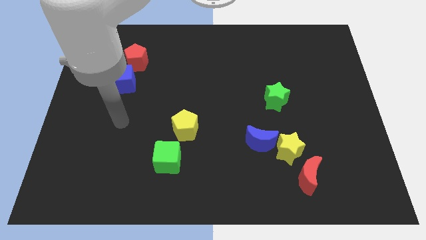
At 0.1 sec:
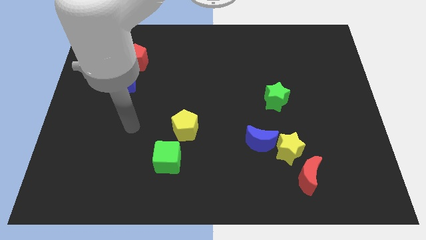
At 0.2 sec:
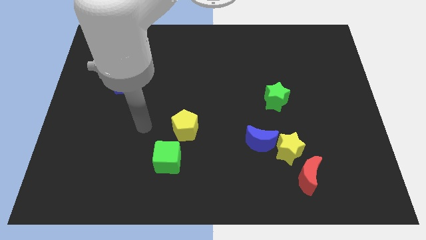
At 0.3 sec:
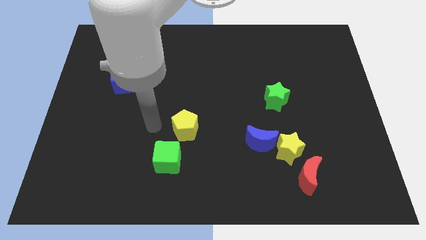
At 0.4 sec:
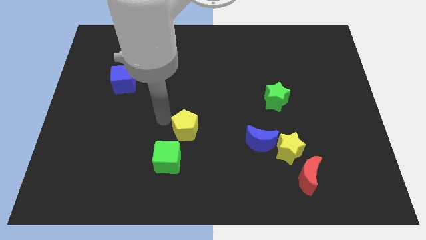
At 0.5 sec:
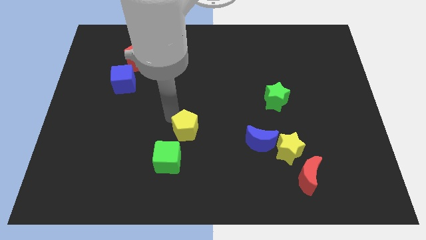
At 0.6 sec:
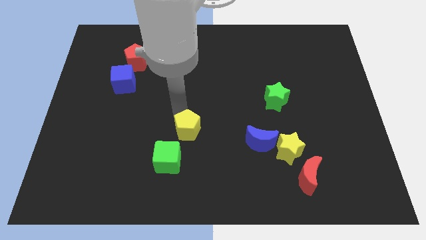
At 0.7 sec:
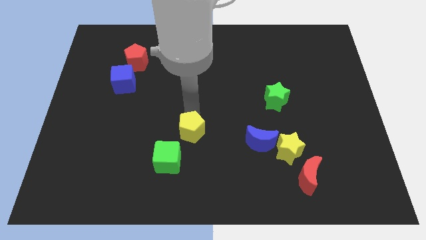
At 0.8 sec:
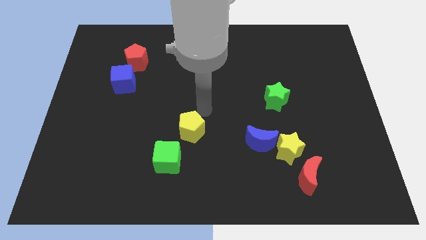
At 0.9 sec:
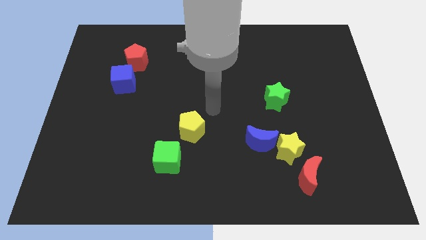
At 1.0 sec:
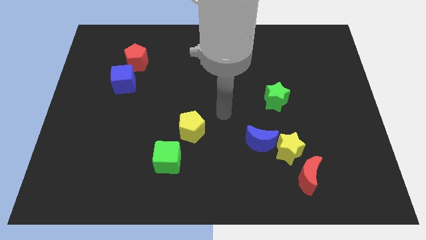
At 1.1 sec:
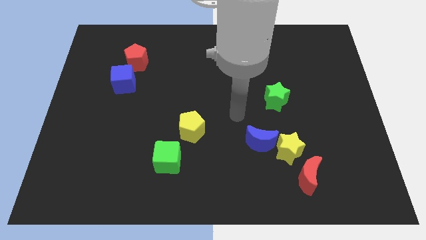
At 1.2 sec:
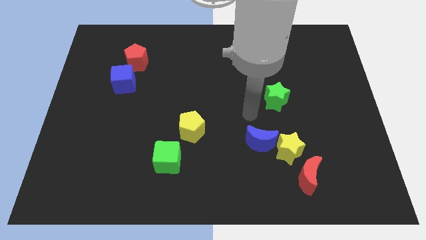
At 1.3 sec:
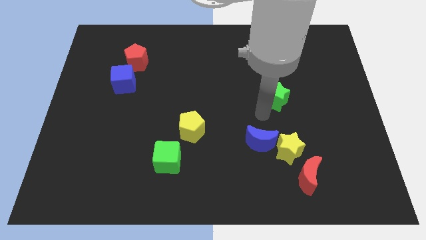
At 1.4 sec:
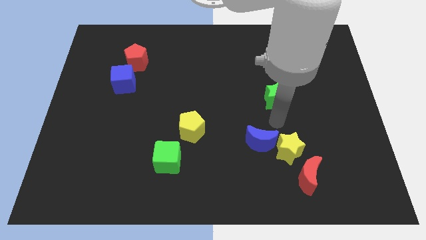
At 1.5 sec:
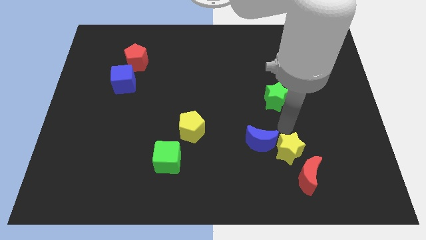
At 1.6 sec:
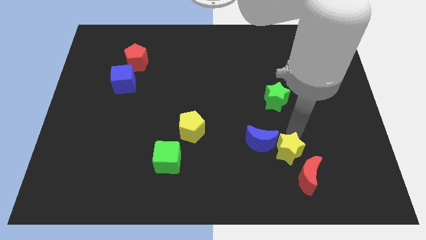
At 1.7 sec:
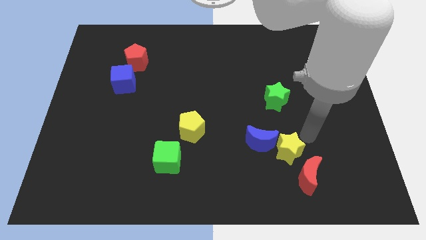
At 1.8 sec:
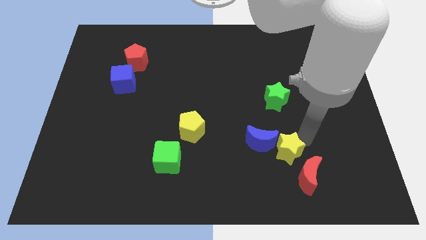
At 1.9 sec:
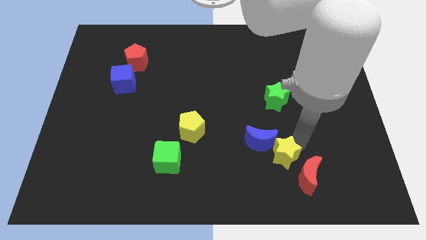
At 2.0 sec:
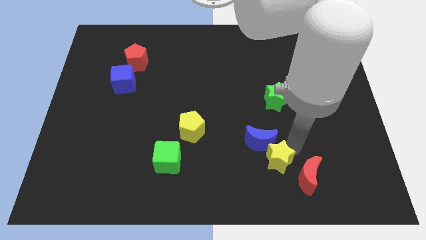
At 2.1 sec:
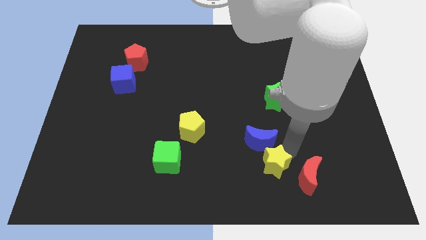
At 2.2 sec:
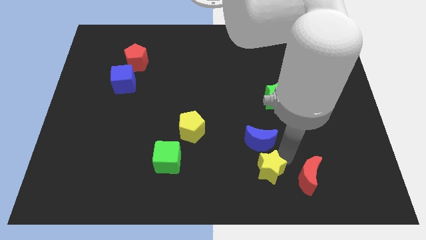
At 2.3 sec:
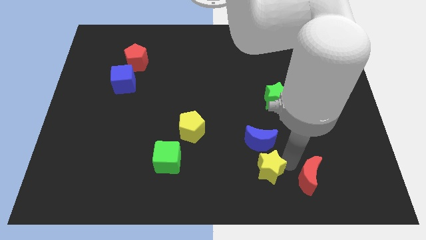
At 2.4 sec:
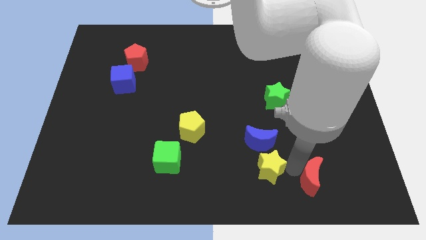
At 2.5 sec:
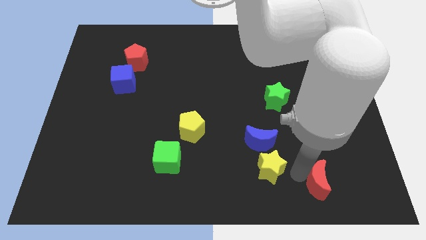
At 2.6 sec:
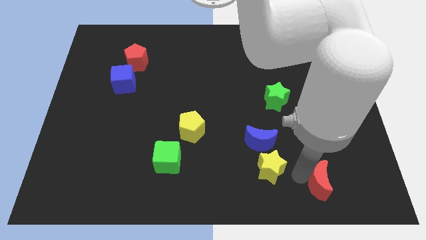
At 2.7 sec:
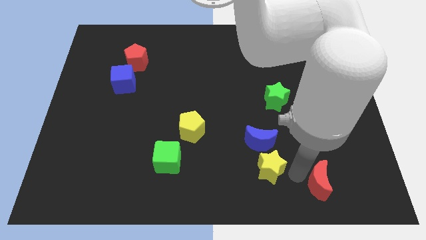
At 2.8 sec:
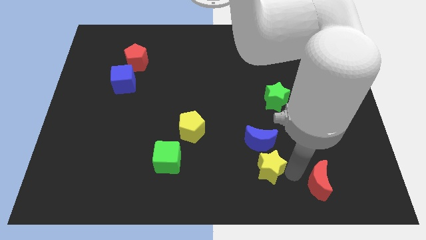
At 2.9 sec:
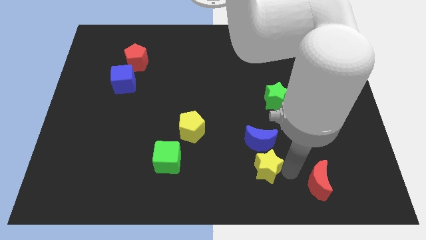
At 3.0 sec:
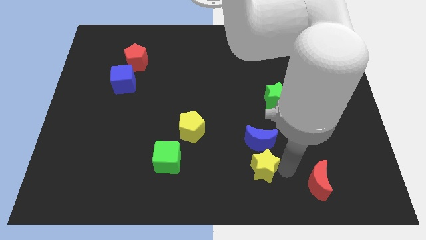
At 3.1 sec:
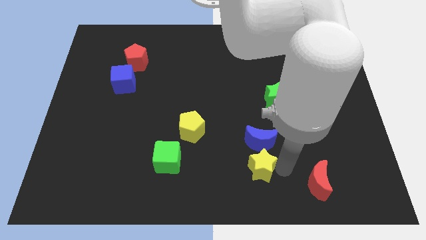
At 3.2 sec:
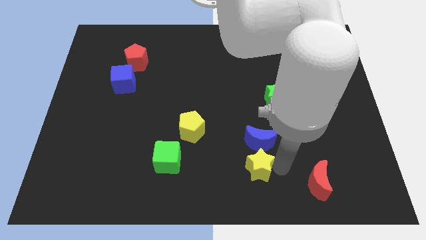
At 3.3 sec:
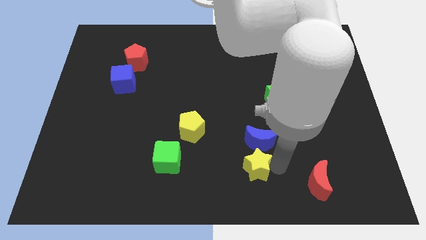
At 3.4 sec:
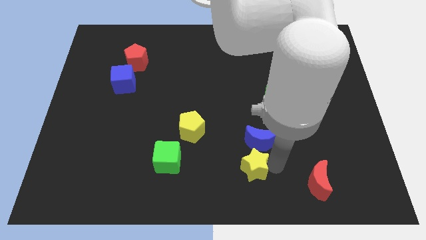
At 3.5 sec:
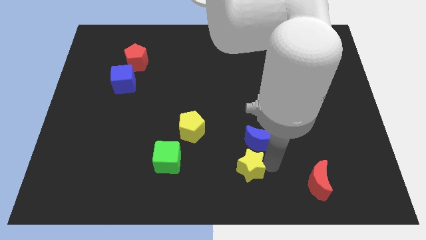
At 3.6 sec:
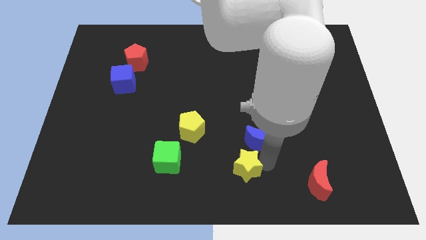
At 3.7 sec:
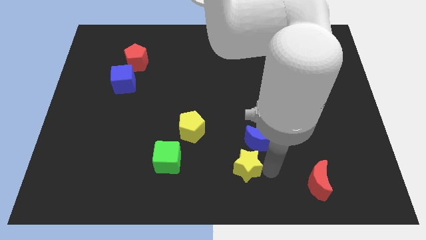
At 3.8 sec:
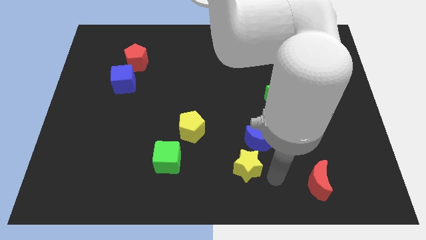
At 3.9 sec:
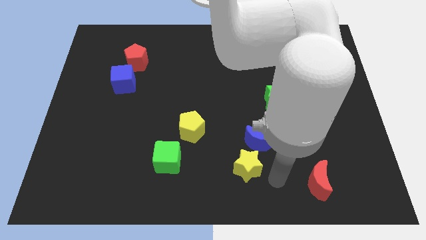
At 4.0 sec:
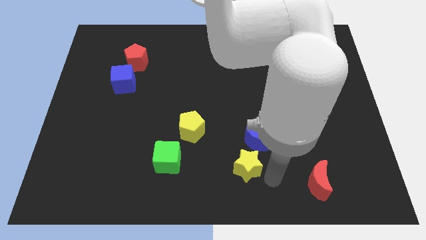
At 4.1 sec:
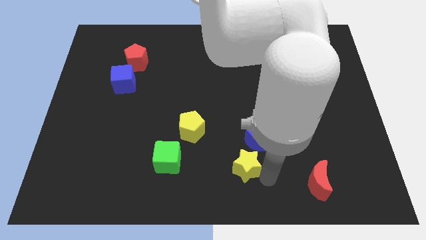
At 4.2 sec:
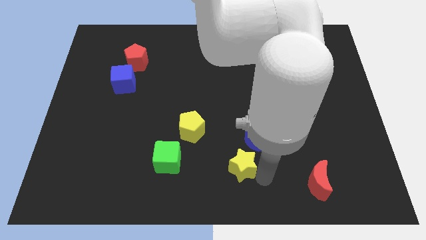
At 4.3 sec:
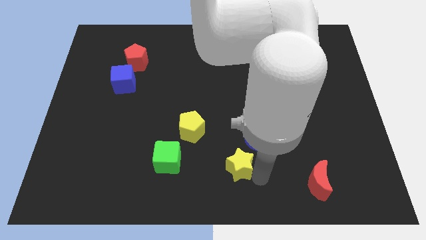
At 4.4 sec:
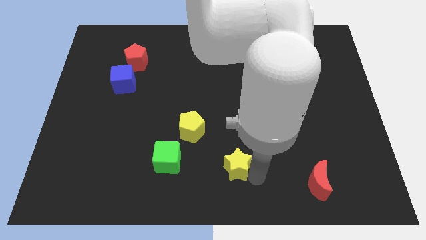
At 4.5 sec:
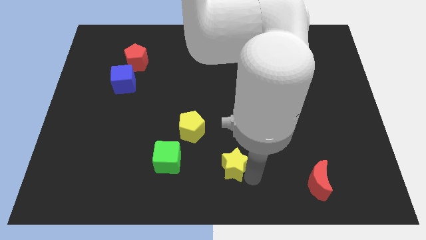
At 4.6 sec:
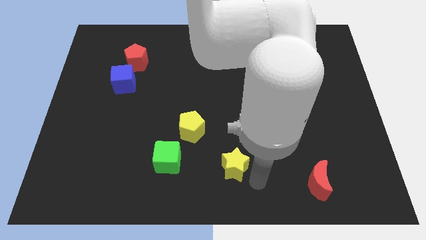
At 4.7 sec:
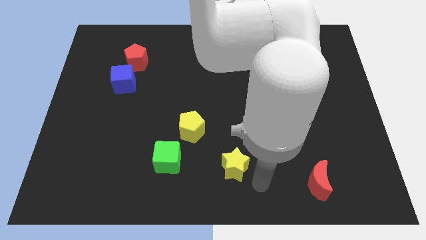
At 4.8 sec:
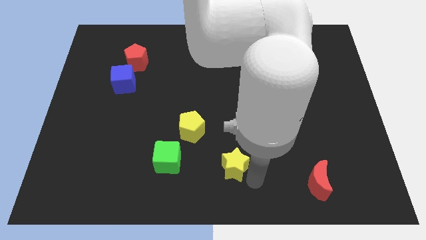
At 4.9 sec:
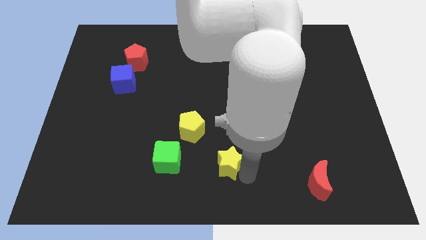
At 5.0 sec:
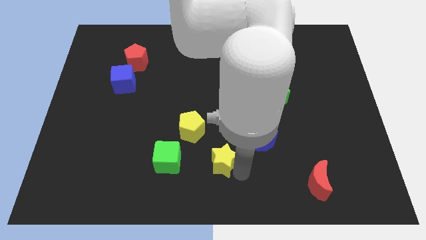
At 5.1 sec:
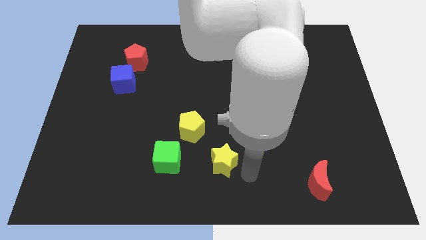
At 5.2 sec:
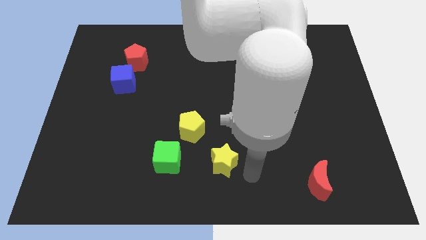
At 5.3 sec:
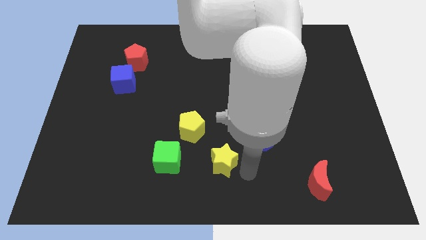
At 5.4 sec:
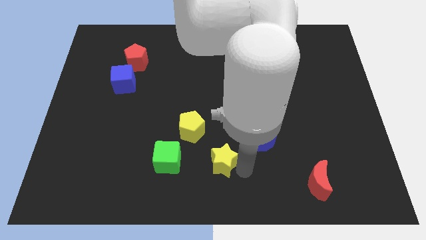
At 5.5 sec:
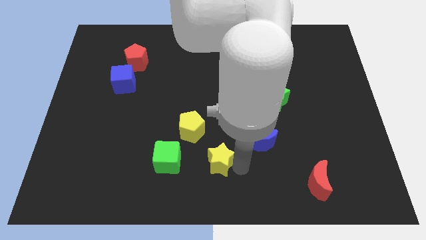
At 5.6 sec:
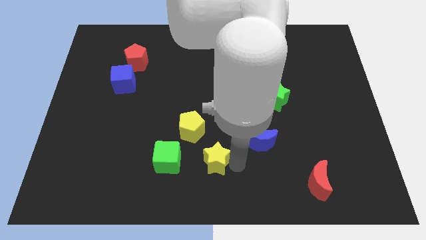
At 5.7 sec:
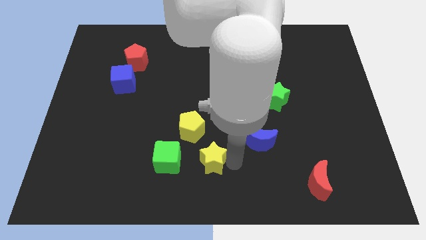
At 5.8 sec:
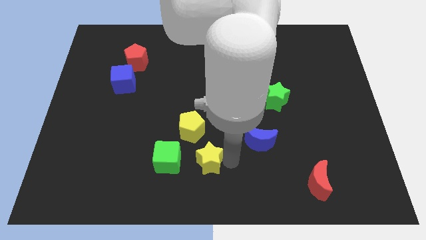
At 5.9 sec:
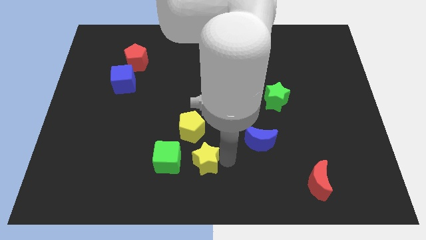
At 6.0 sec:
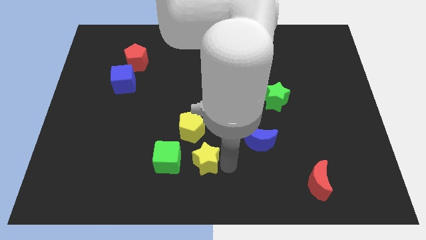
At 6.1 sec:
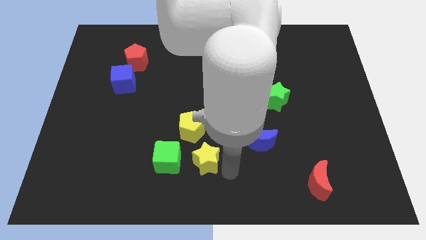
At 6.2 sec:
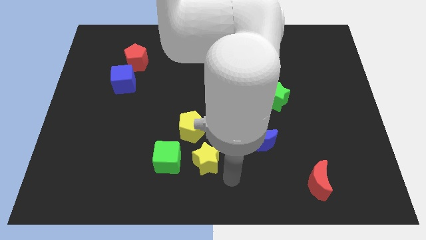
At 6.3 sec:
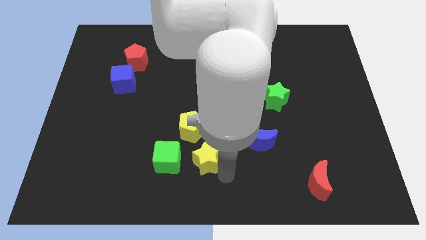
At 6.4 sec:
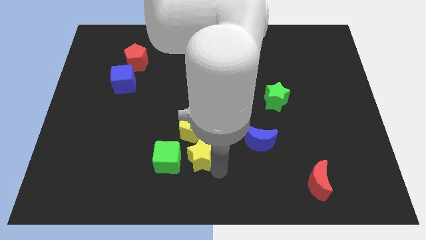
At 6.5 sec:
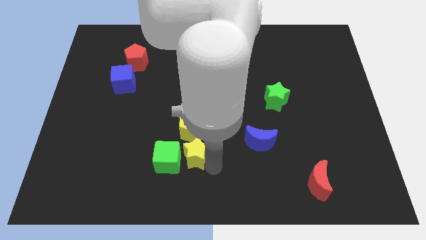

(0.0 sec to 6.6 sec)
slide the yellow star to the left

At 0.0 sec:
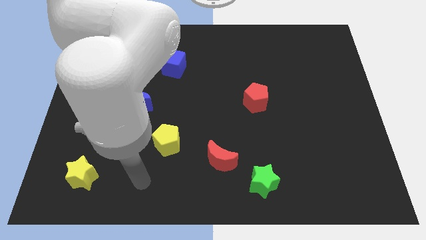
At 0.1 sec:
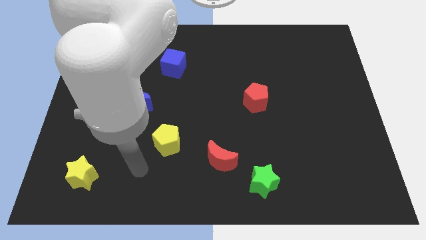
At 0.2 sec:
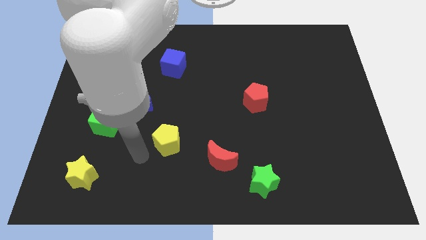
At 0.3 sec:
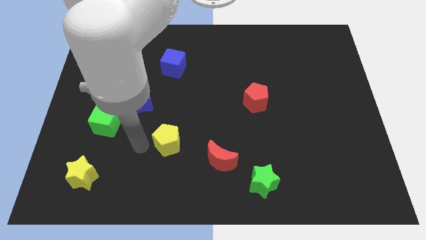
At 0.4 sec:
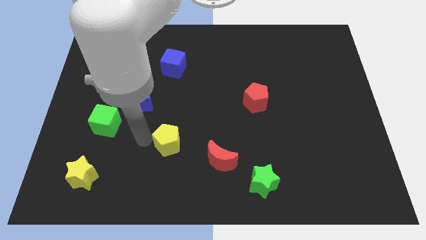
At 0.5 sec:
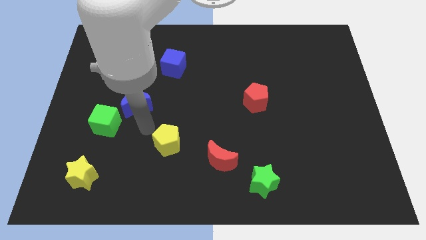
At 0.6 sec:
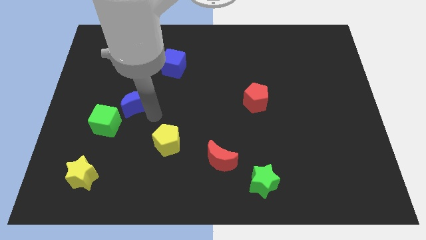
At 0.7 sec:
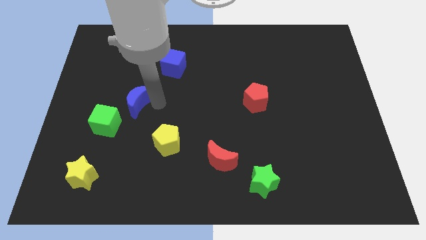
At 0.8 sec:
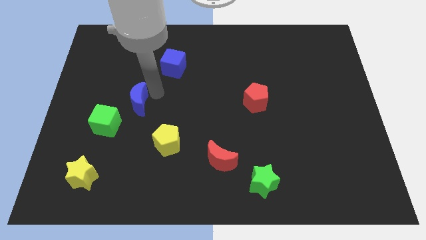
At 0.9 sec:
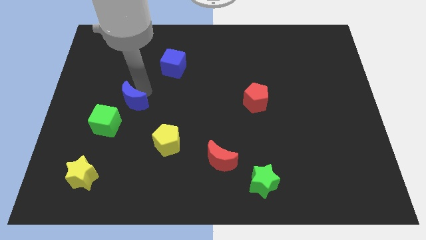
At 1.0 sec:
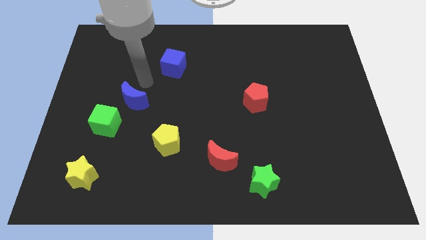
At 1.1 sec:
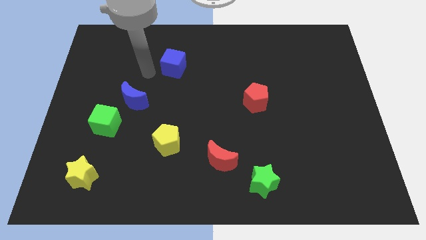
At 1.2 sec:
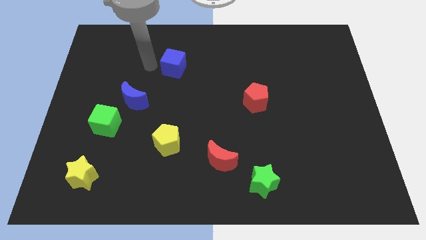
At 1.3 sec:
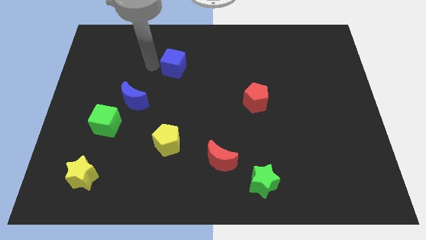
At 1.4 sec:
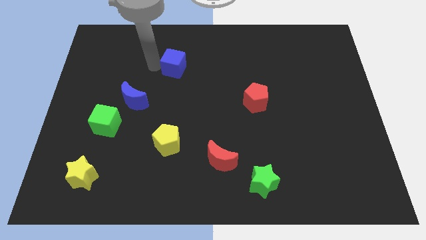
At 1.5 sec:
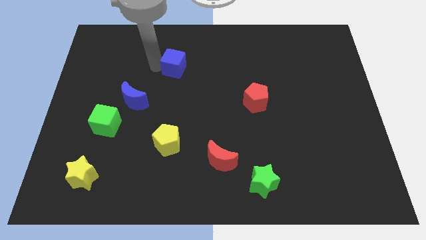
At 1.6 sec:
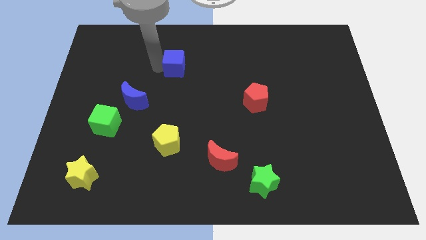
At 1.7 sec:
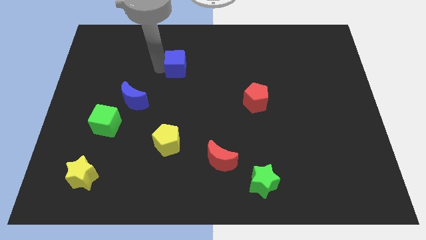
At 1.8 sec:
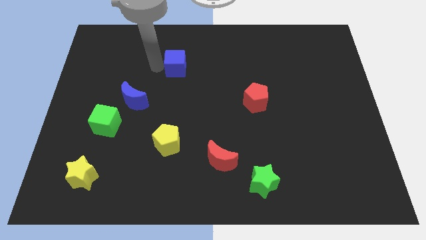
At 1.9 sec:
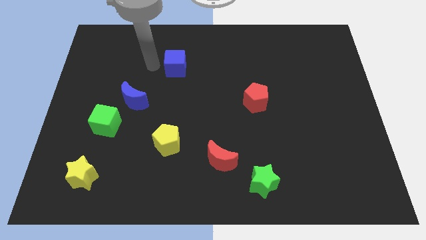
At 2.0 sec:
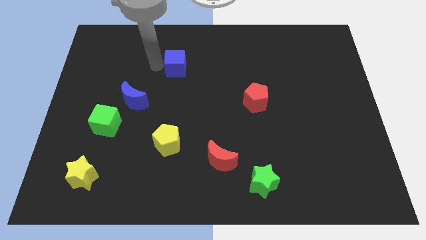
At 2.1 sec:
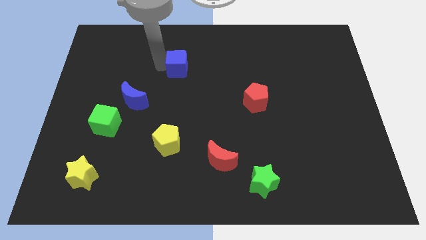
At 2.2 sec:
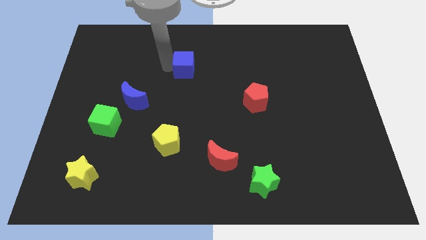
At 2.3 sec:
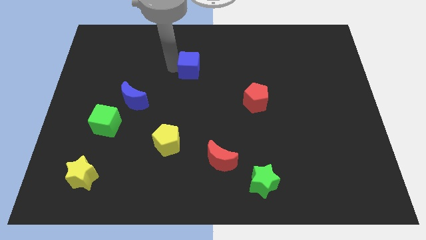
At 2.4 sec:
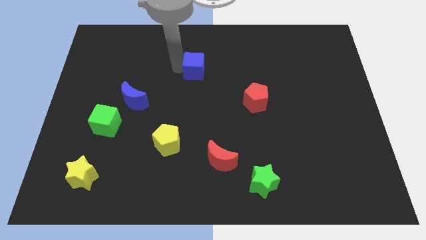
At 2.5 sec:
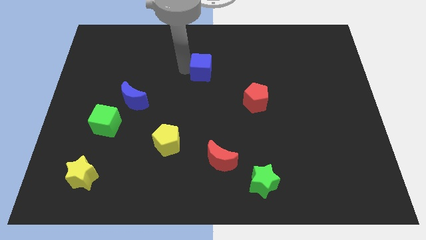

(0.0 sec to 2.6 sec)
push the blue cube a little bit to the right
